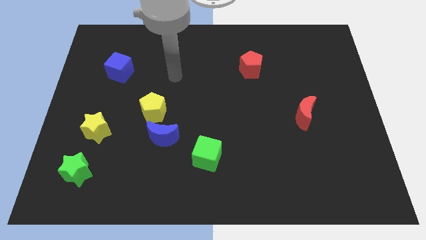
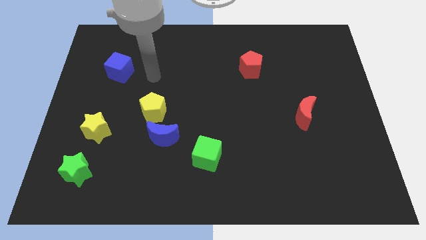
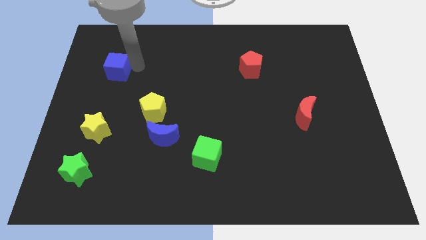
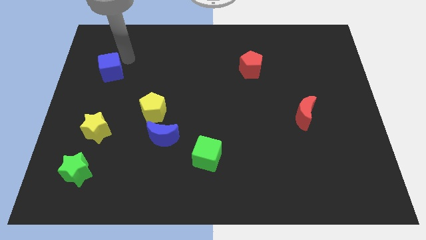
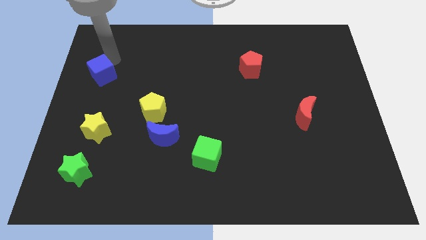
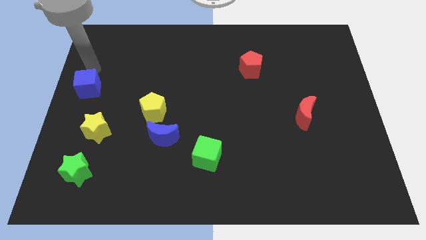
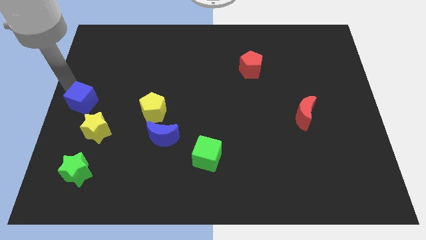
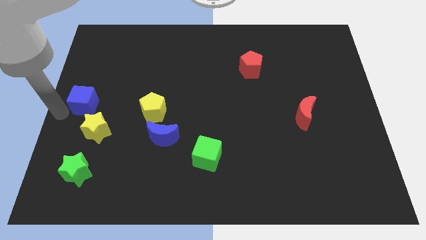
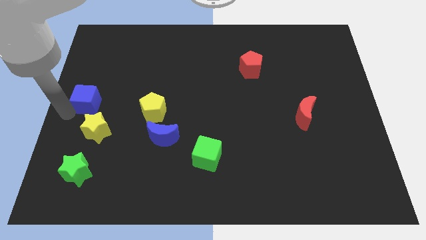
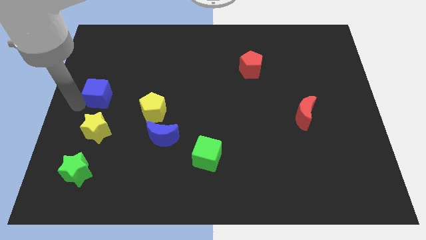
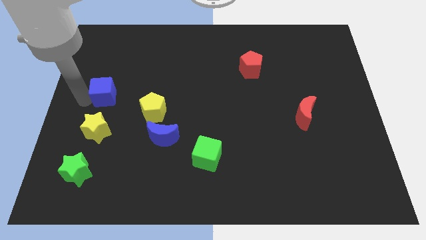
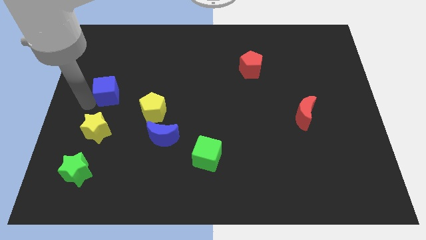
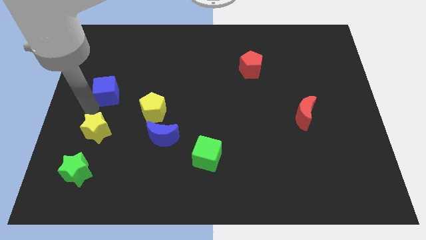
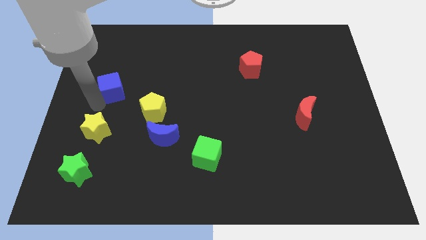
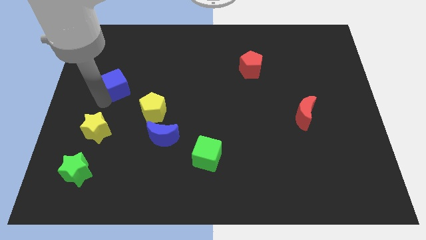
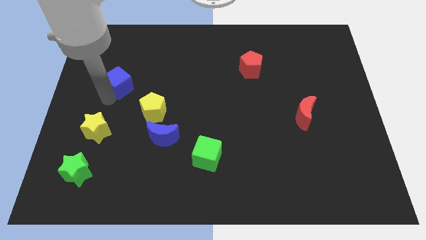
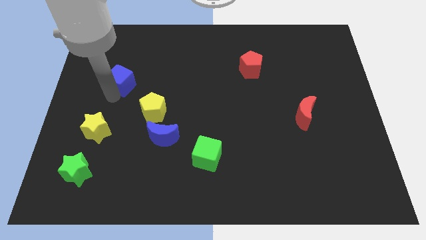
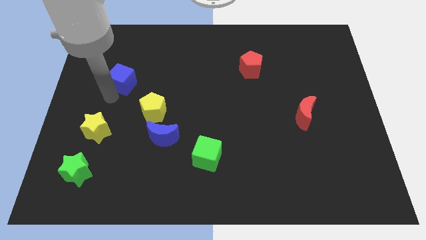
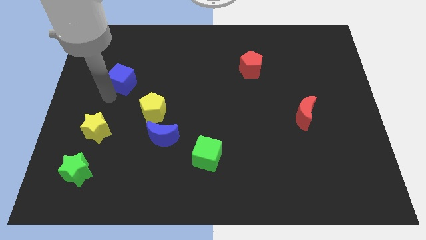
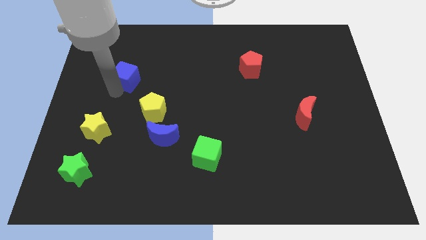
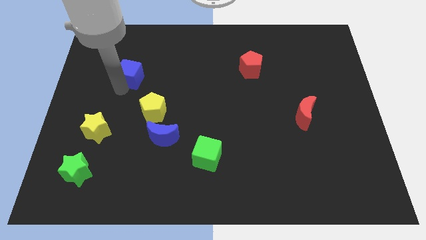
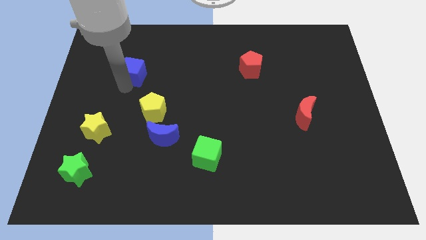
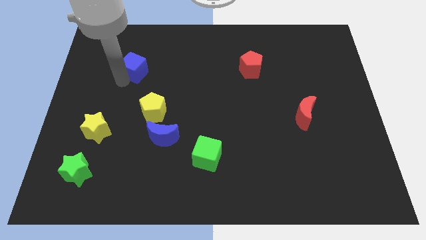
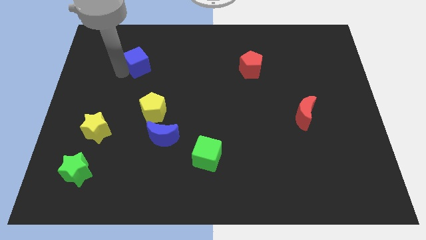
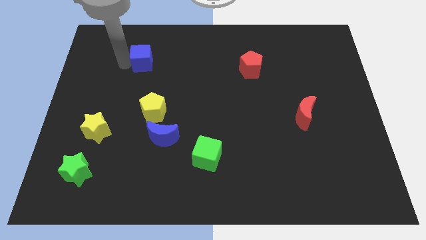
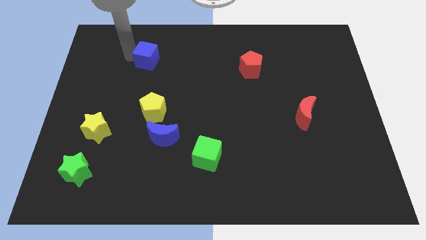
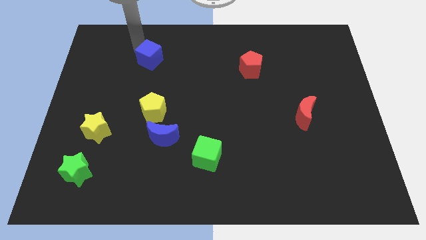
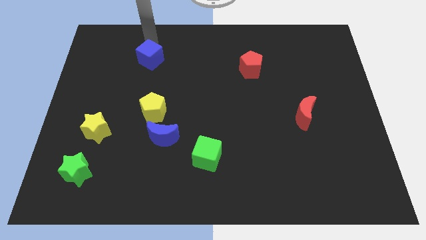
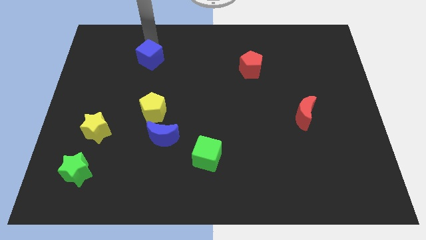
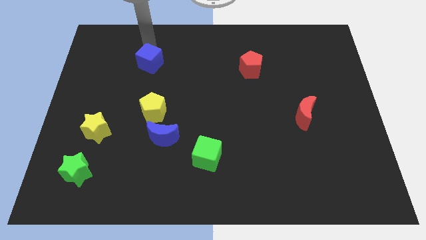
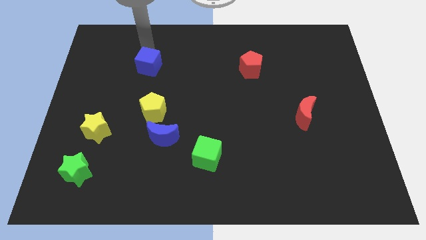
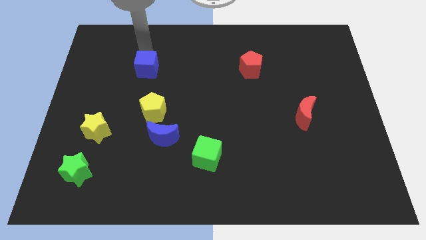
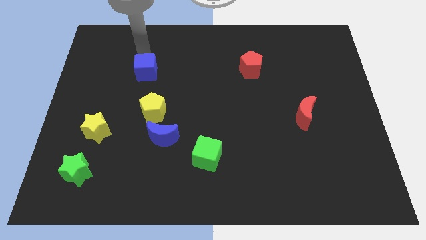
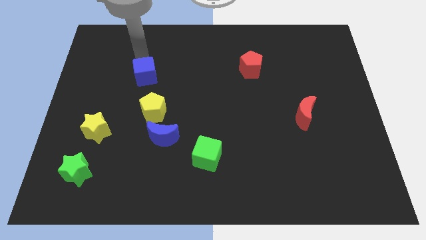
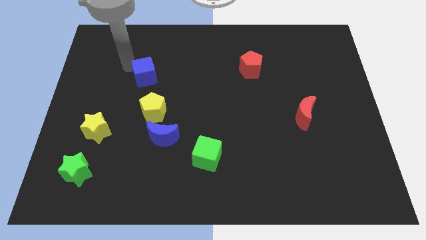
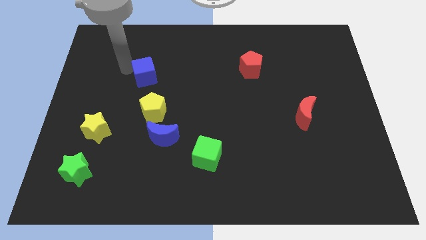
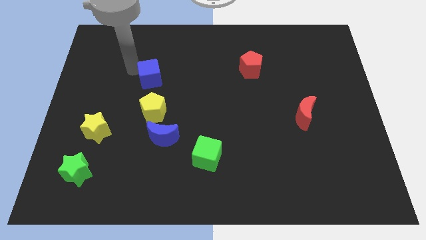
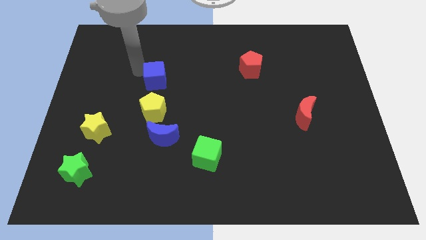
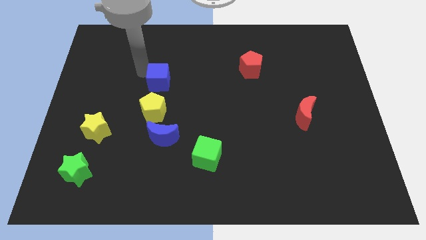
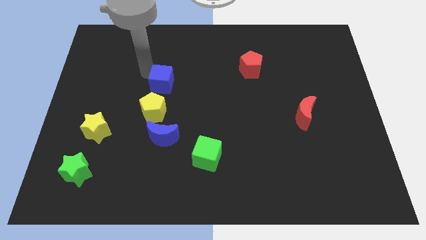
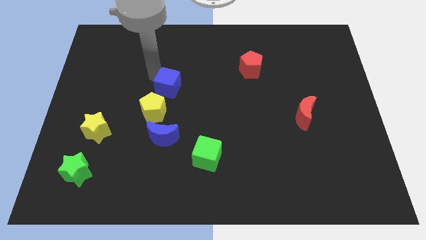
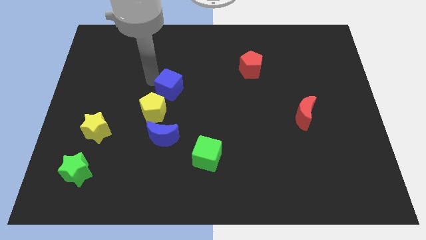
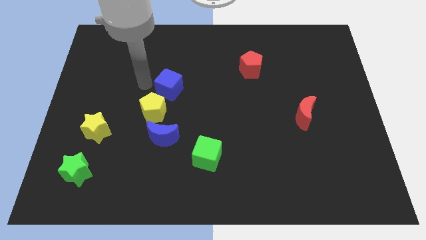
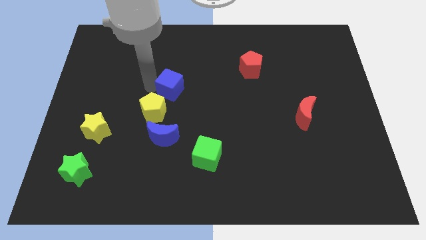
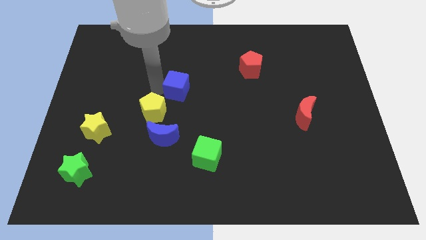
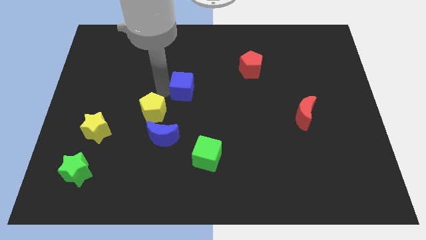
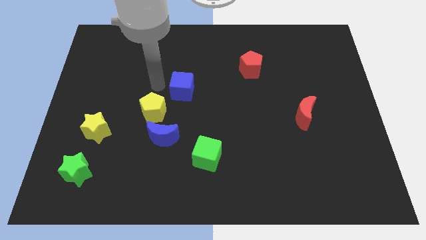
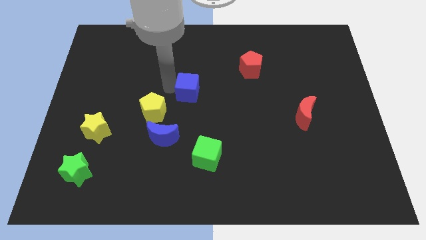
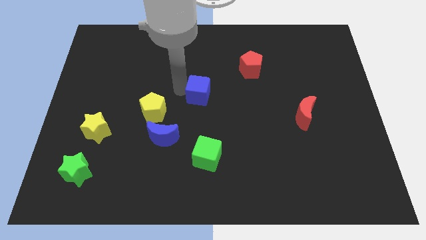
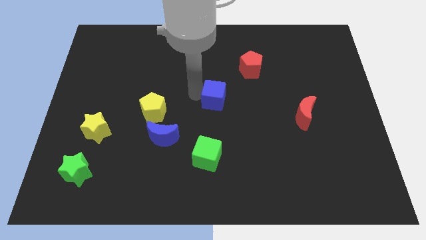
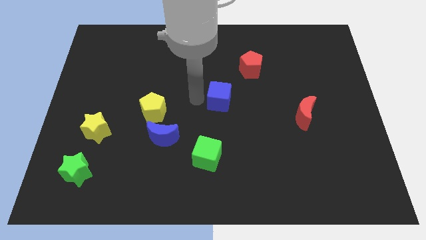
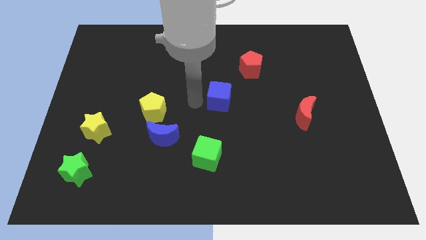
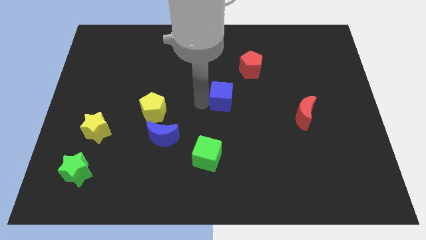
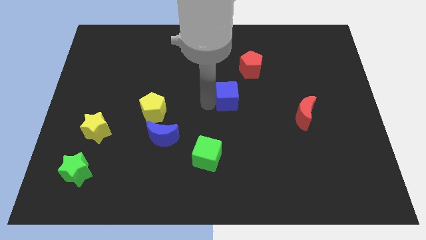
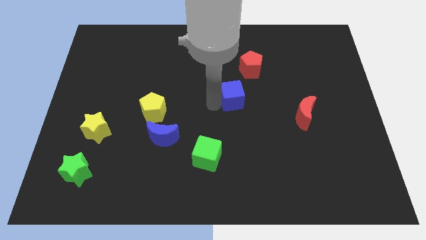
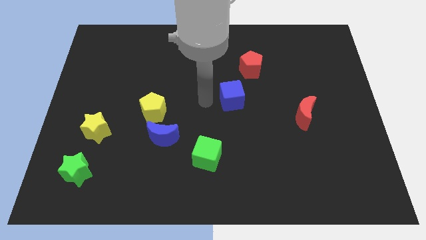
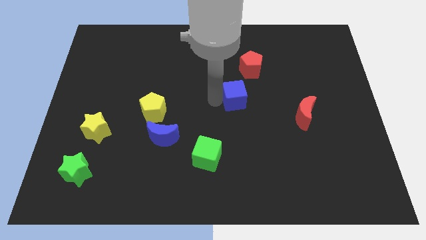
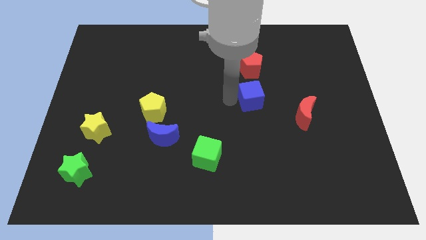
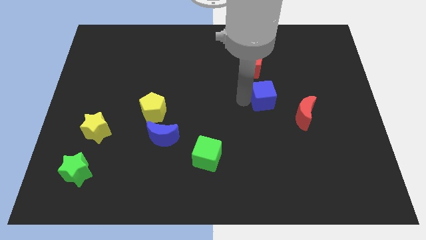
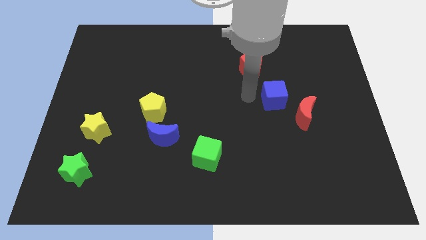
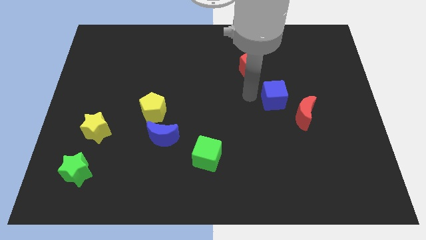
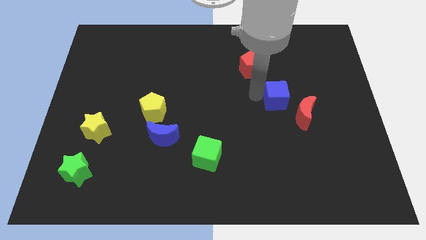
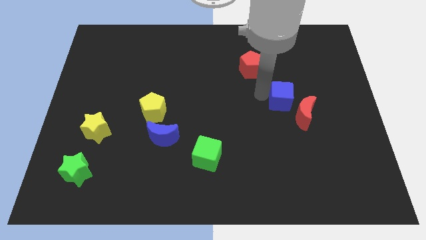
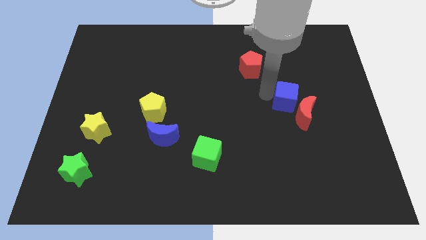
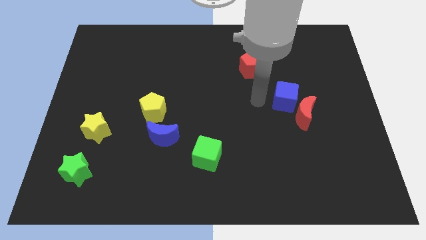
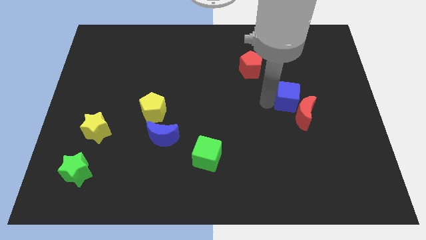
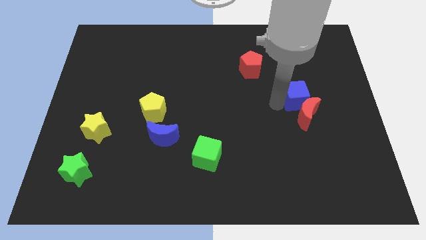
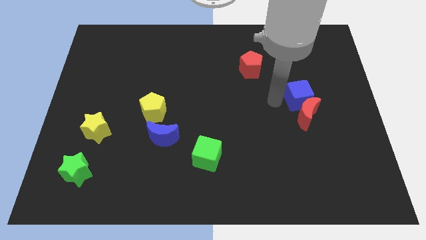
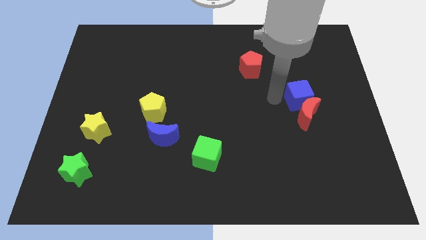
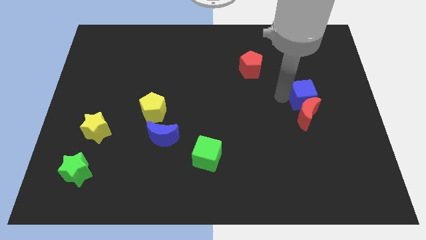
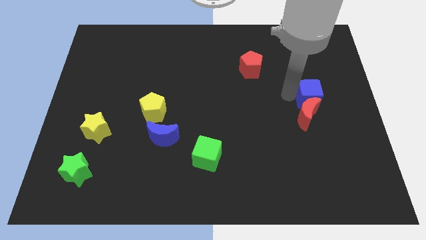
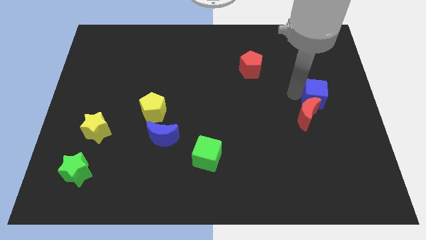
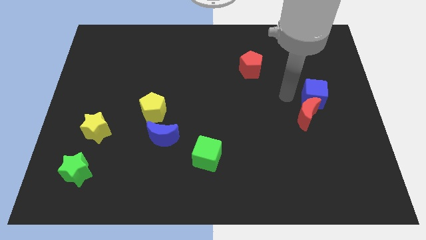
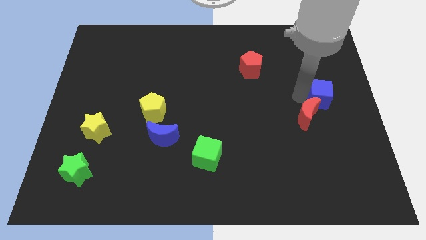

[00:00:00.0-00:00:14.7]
move the blue cube to the right side
